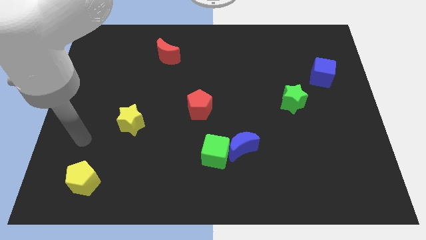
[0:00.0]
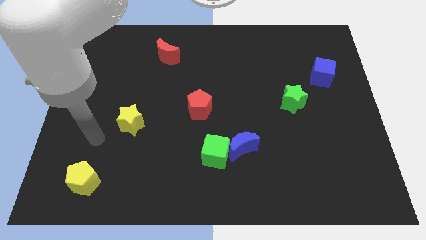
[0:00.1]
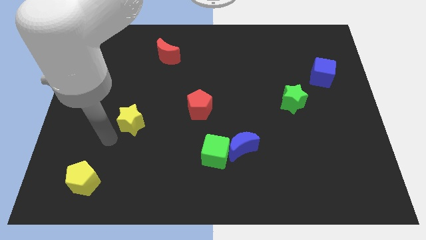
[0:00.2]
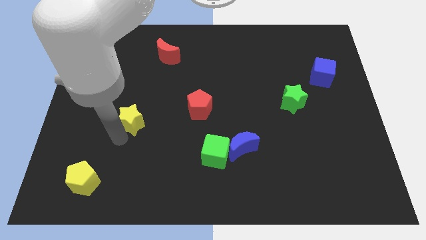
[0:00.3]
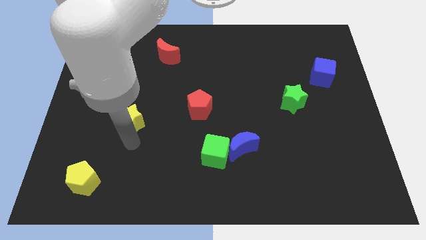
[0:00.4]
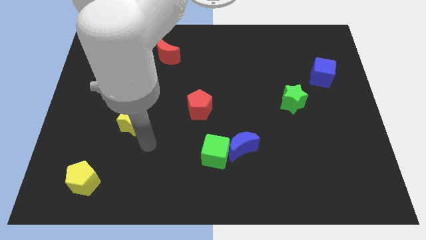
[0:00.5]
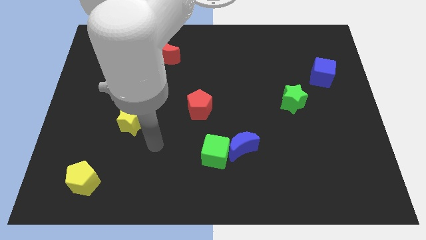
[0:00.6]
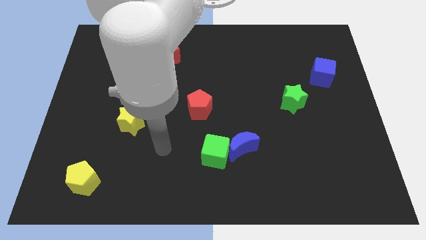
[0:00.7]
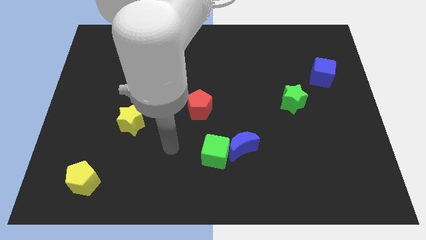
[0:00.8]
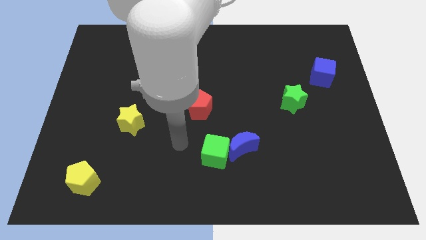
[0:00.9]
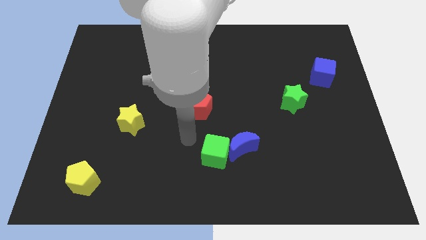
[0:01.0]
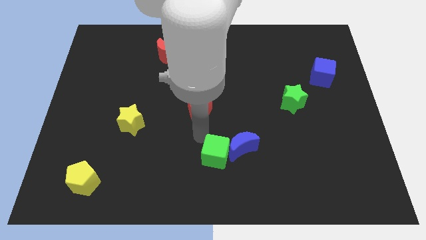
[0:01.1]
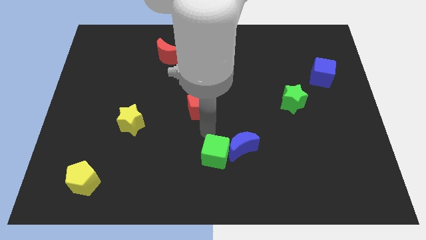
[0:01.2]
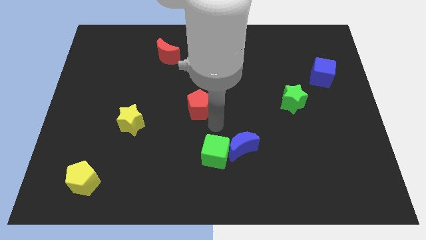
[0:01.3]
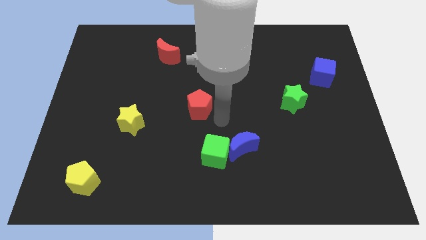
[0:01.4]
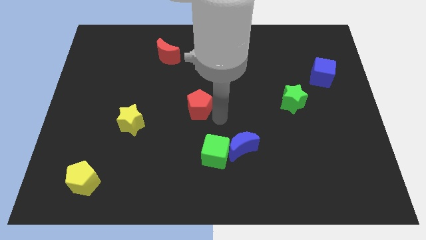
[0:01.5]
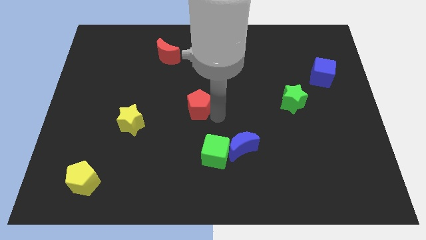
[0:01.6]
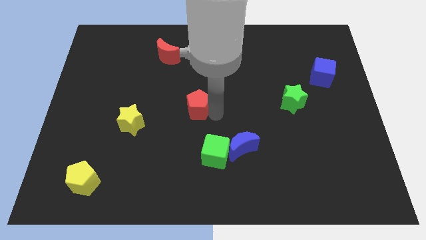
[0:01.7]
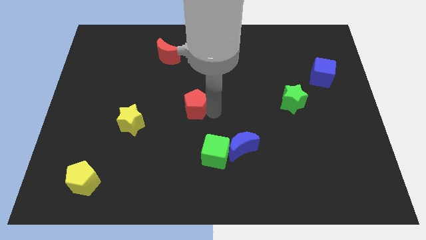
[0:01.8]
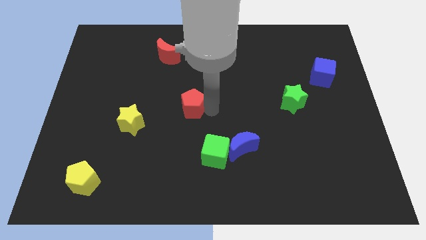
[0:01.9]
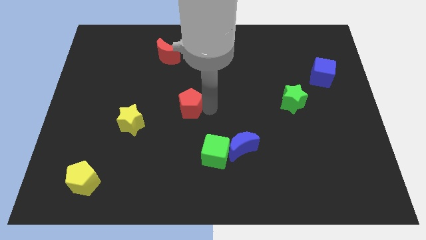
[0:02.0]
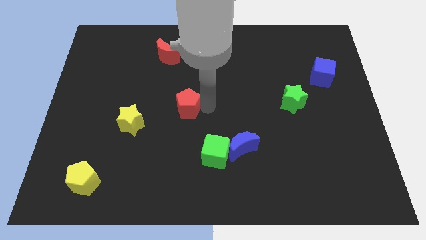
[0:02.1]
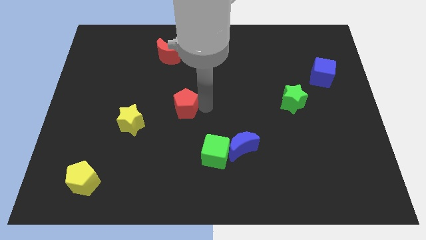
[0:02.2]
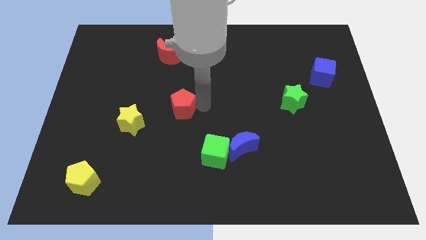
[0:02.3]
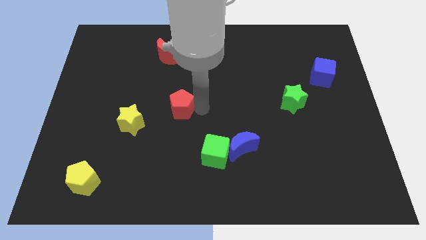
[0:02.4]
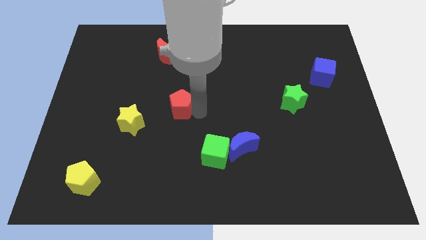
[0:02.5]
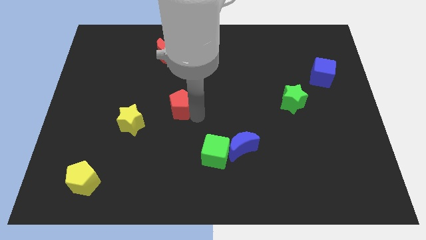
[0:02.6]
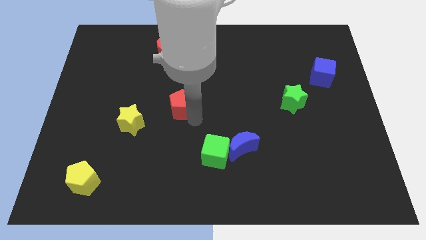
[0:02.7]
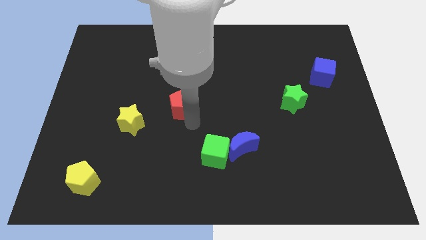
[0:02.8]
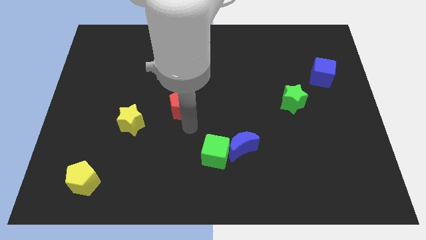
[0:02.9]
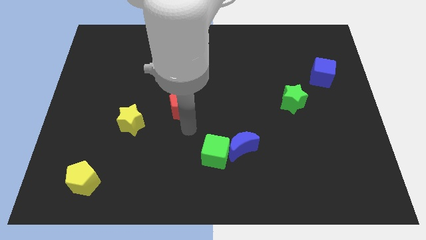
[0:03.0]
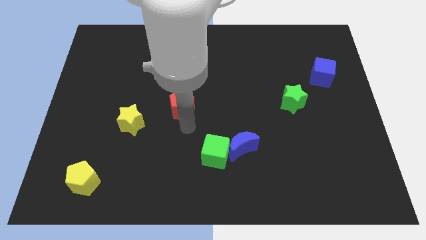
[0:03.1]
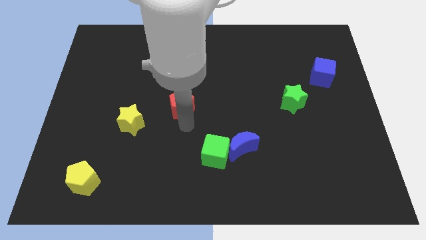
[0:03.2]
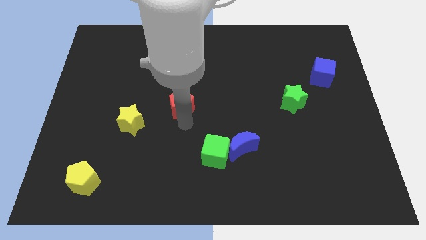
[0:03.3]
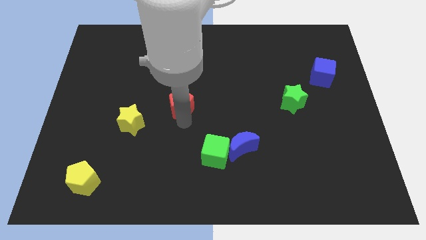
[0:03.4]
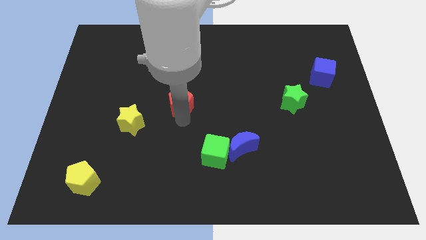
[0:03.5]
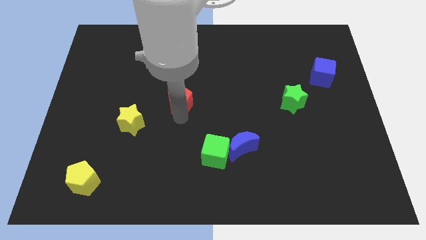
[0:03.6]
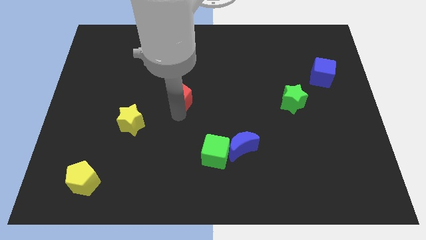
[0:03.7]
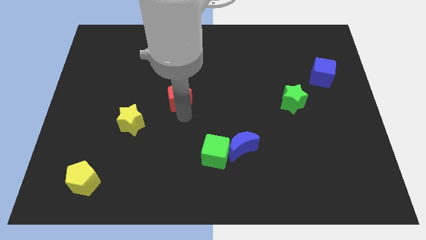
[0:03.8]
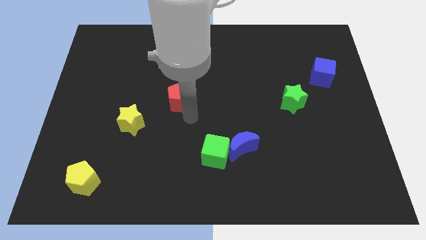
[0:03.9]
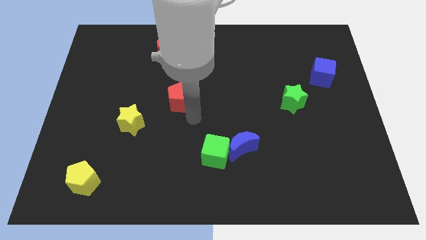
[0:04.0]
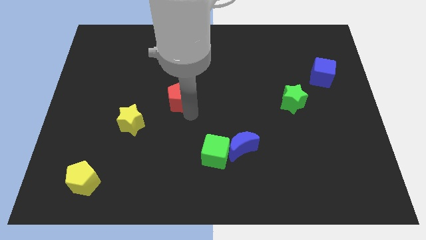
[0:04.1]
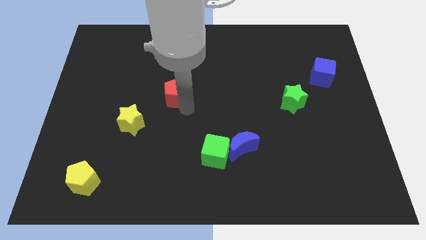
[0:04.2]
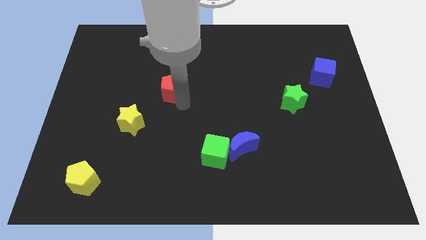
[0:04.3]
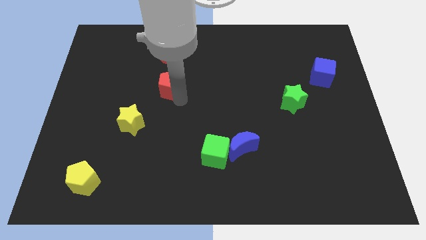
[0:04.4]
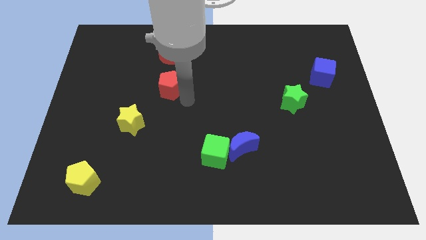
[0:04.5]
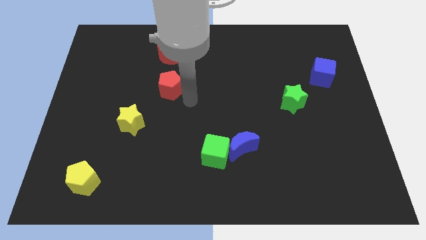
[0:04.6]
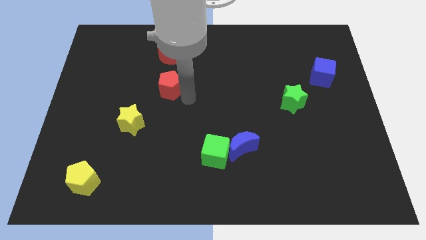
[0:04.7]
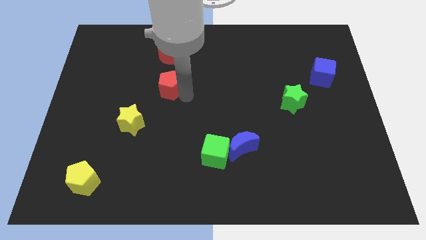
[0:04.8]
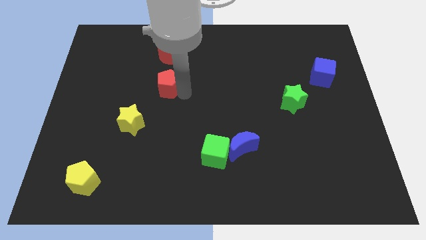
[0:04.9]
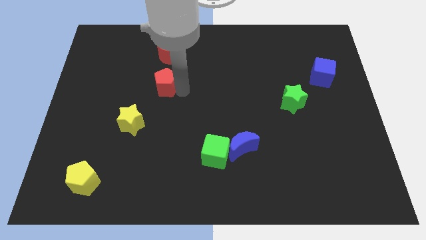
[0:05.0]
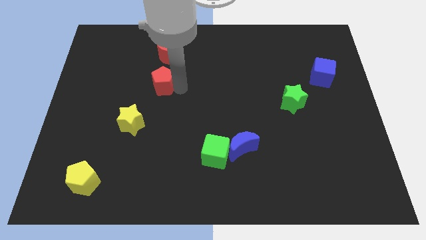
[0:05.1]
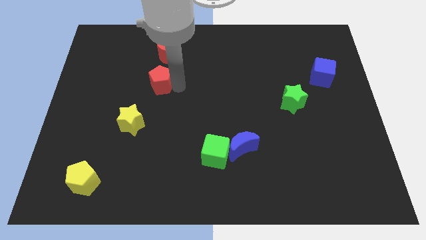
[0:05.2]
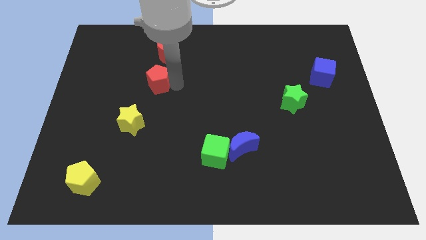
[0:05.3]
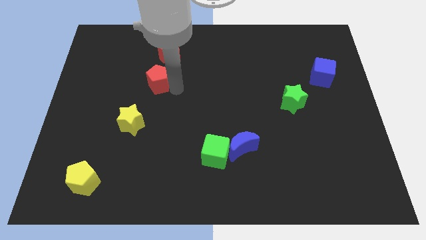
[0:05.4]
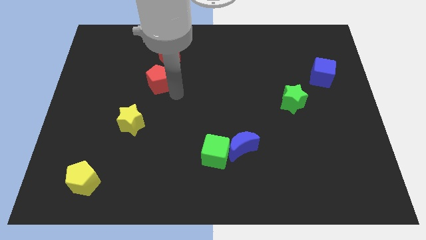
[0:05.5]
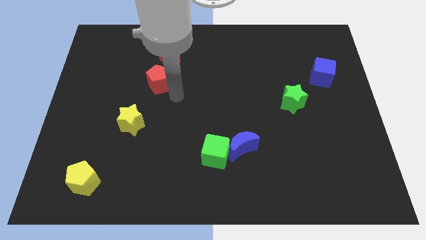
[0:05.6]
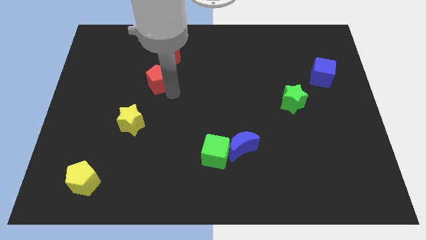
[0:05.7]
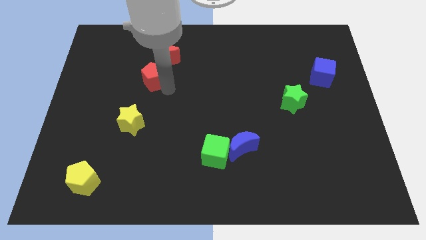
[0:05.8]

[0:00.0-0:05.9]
push the red pentagon to the bottom left of the red moon

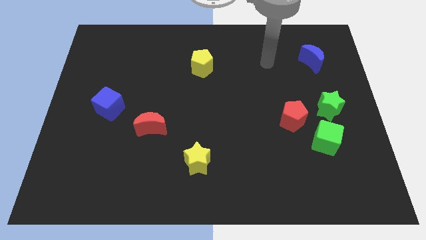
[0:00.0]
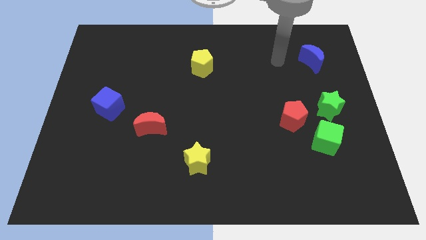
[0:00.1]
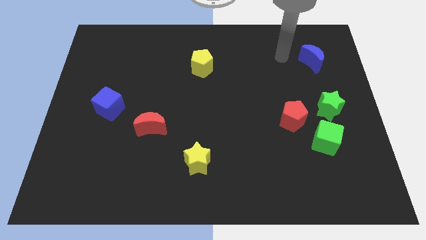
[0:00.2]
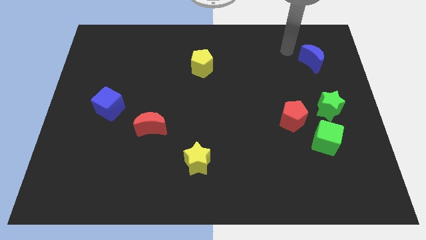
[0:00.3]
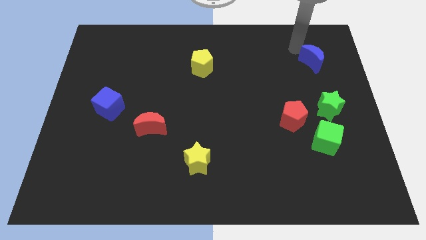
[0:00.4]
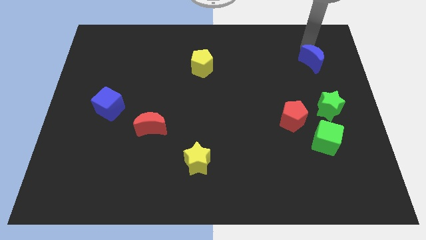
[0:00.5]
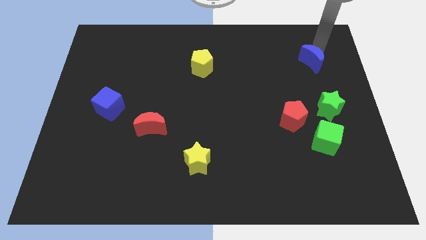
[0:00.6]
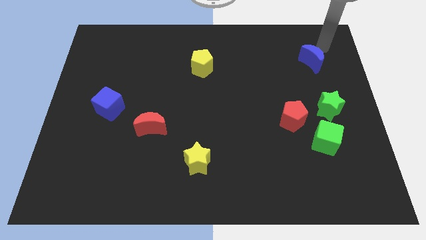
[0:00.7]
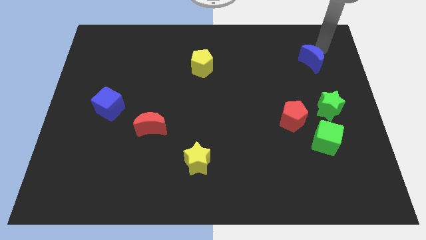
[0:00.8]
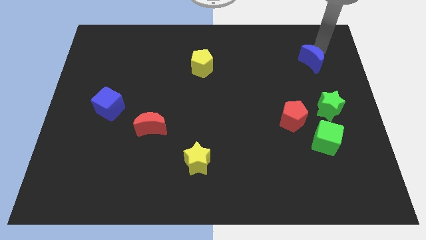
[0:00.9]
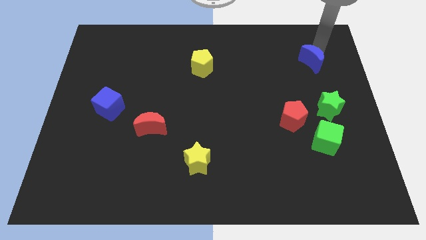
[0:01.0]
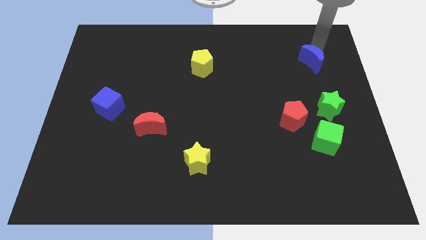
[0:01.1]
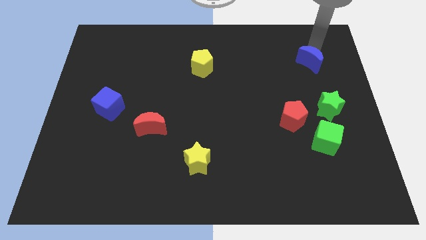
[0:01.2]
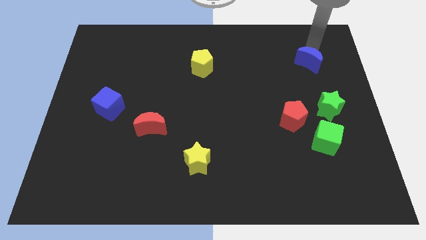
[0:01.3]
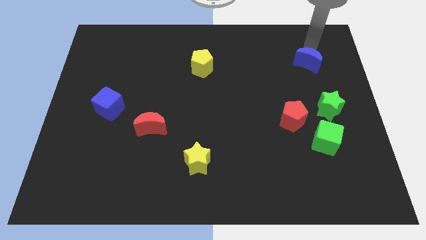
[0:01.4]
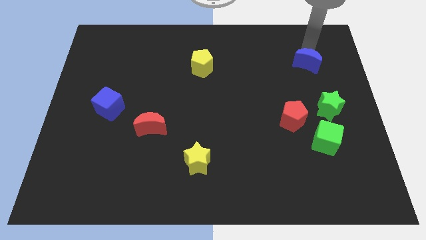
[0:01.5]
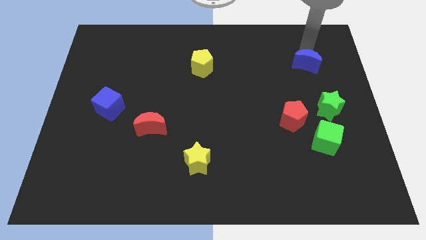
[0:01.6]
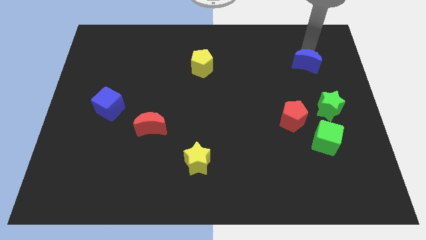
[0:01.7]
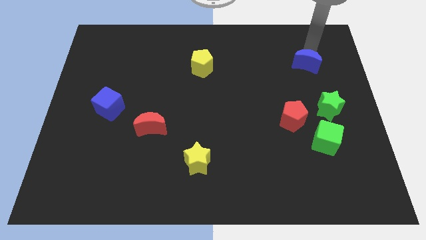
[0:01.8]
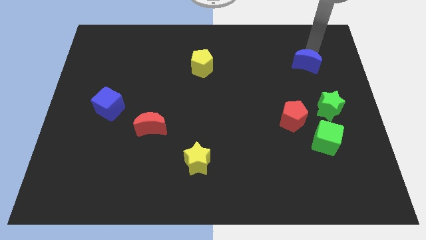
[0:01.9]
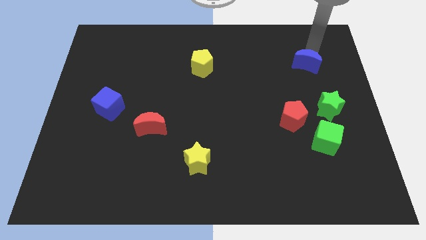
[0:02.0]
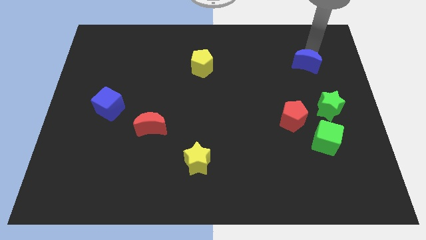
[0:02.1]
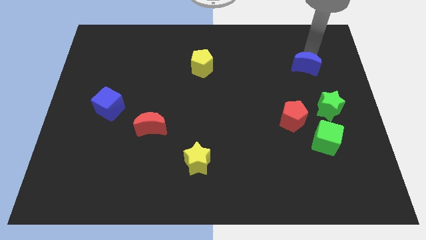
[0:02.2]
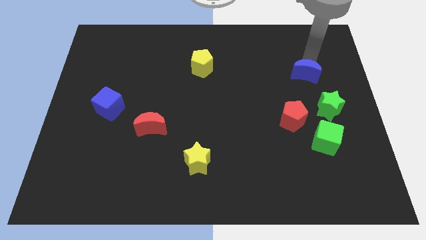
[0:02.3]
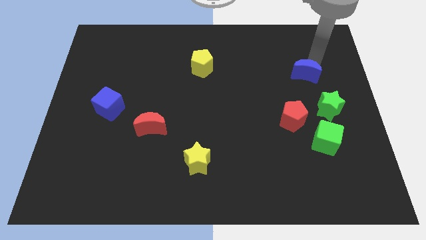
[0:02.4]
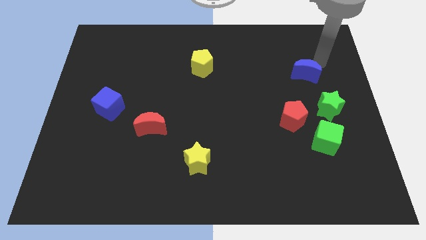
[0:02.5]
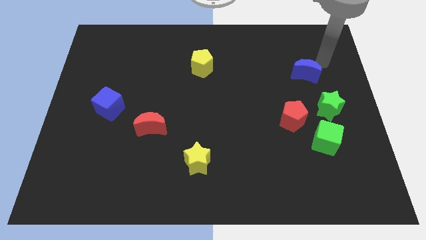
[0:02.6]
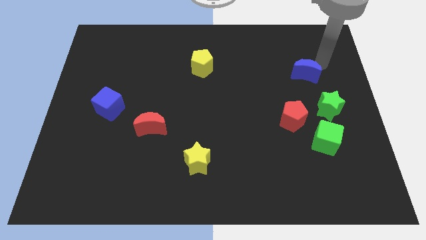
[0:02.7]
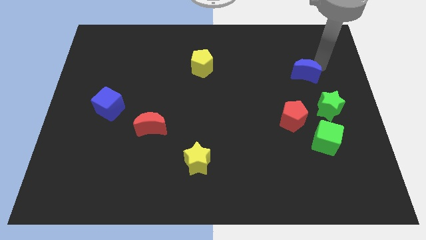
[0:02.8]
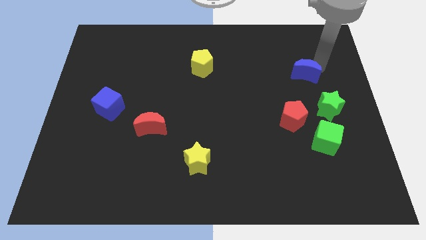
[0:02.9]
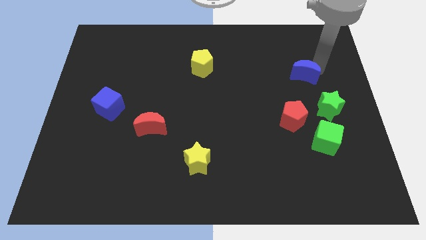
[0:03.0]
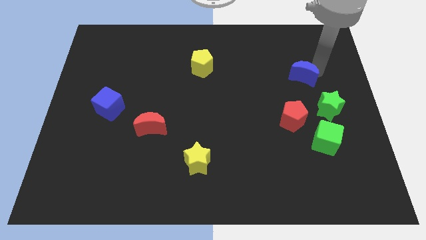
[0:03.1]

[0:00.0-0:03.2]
move the blue moon above the red pentagon
